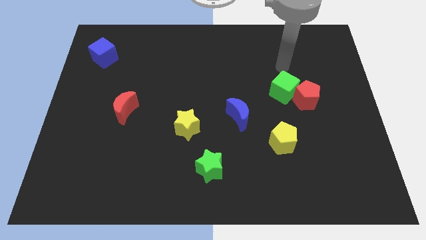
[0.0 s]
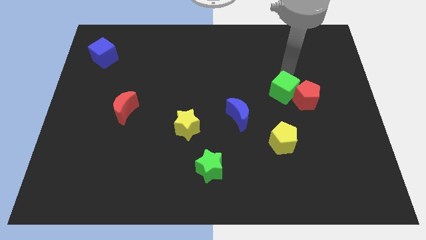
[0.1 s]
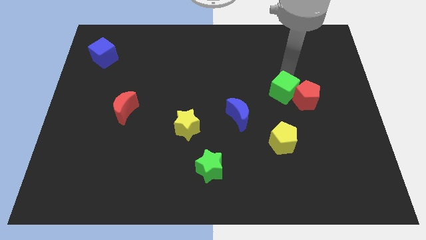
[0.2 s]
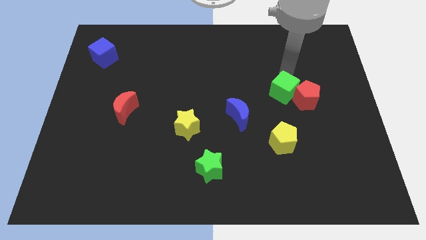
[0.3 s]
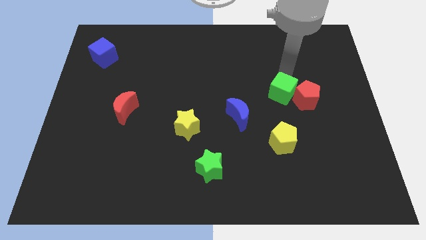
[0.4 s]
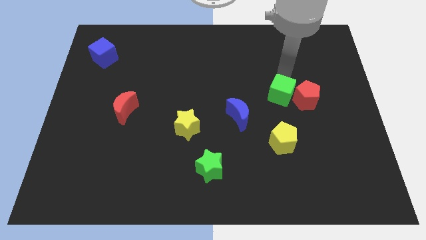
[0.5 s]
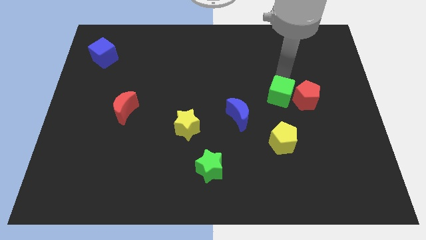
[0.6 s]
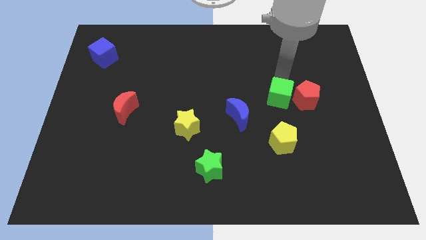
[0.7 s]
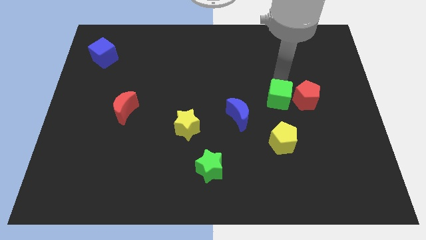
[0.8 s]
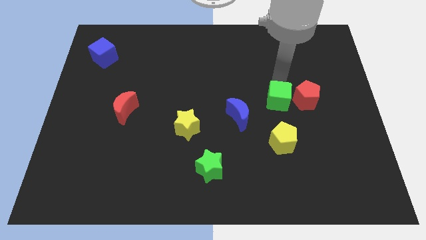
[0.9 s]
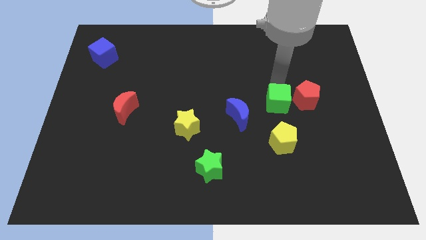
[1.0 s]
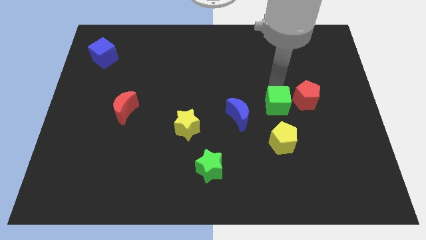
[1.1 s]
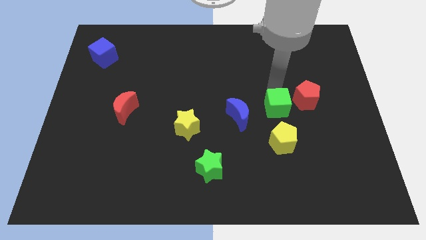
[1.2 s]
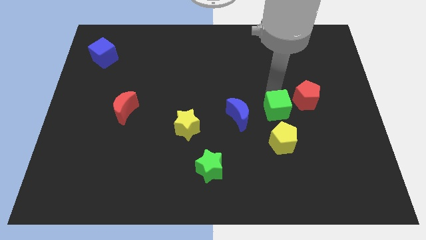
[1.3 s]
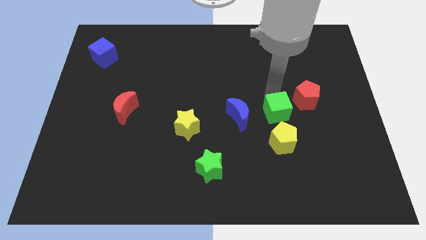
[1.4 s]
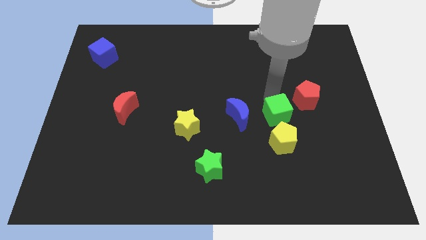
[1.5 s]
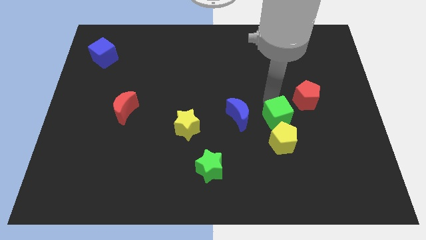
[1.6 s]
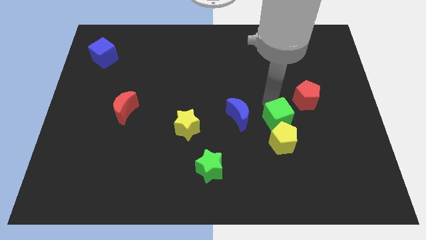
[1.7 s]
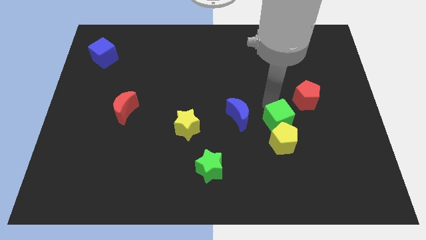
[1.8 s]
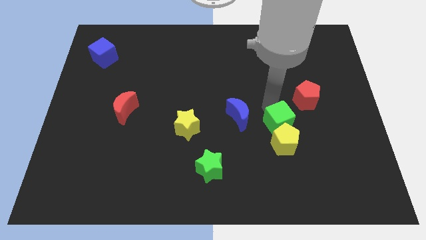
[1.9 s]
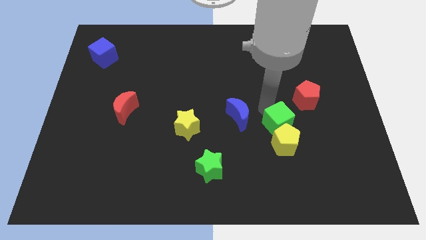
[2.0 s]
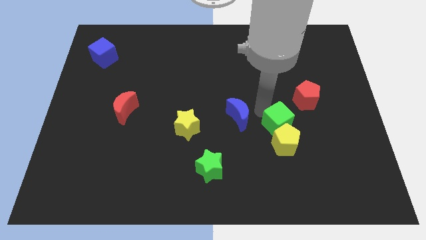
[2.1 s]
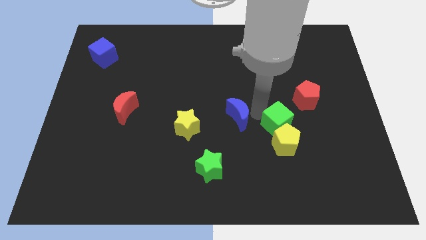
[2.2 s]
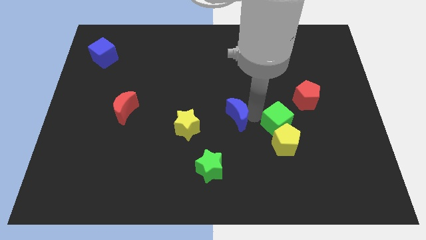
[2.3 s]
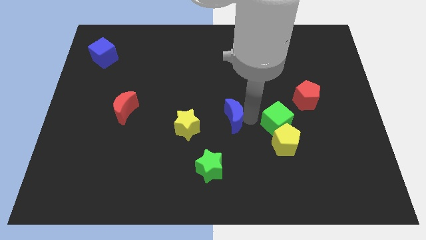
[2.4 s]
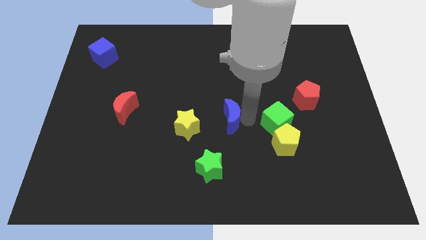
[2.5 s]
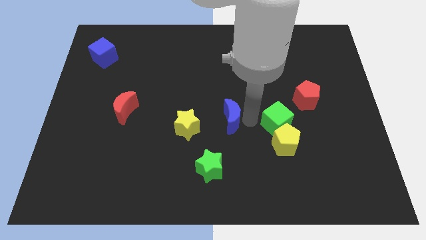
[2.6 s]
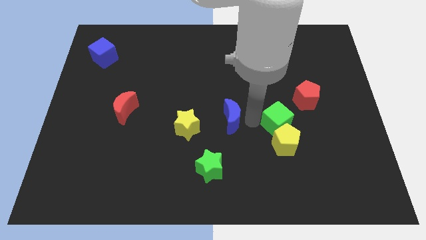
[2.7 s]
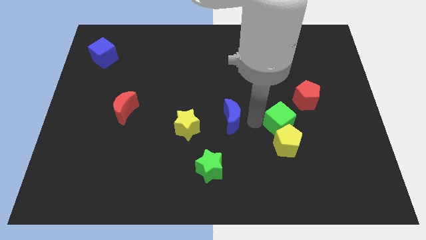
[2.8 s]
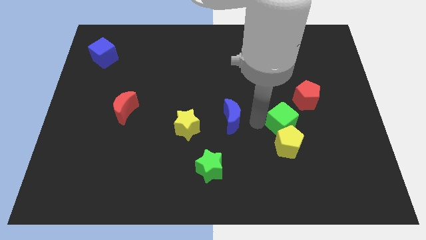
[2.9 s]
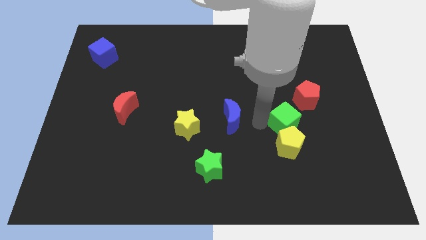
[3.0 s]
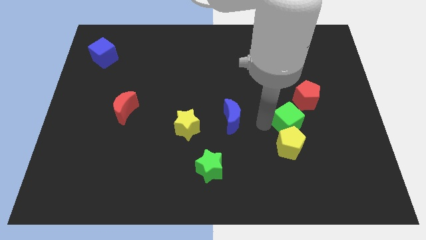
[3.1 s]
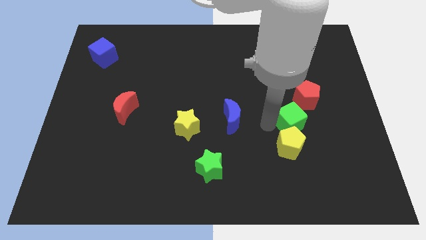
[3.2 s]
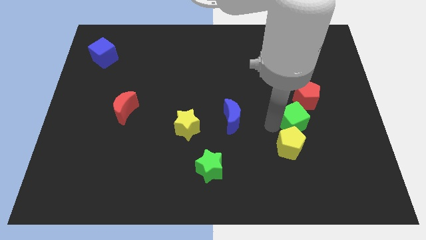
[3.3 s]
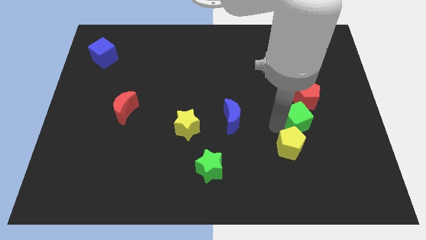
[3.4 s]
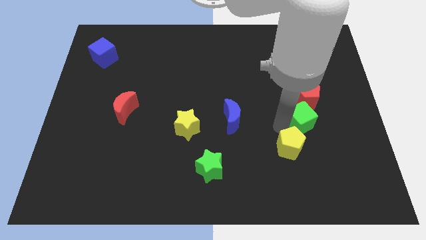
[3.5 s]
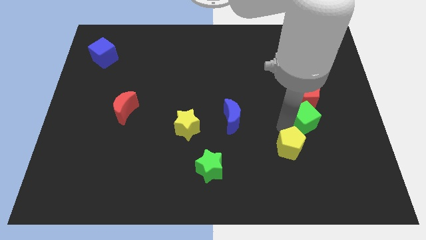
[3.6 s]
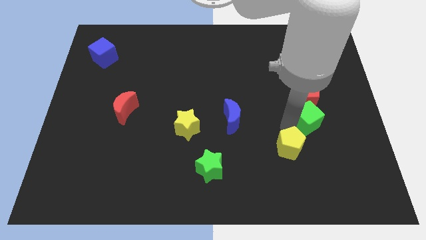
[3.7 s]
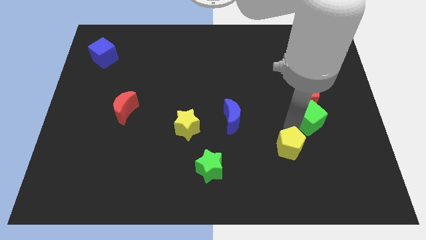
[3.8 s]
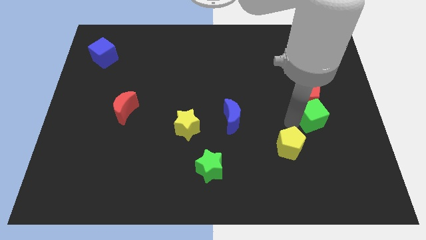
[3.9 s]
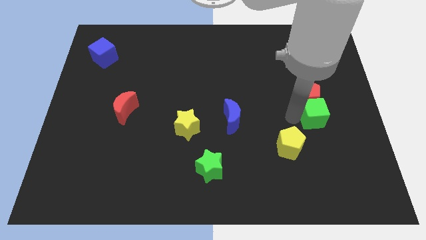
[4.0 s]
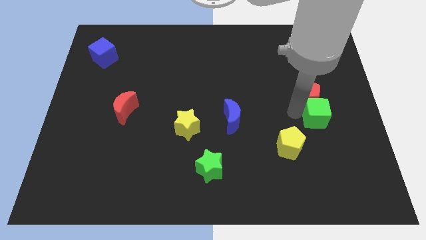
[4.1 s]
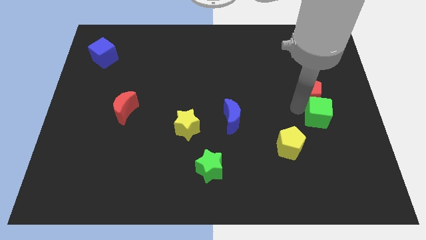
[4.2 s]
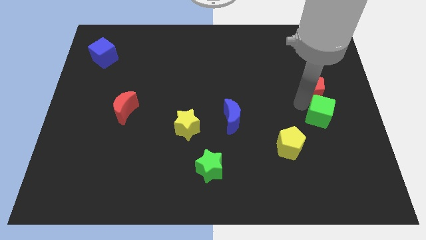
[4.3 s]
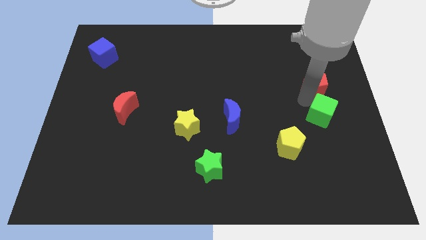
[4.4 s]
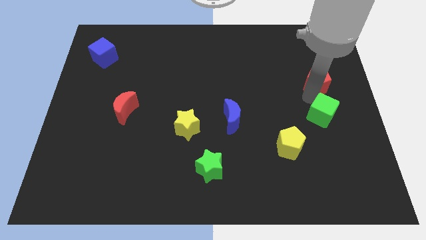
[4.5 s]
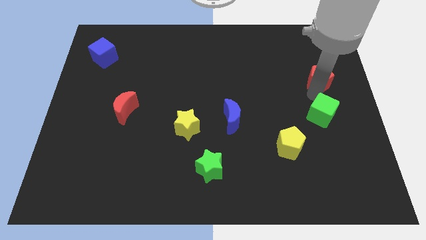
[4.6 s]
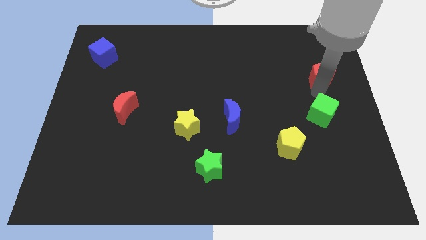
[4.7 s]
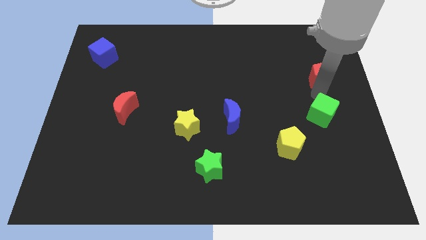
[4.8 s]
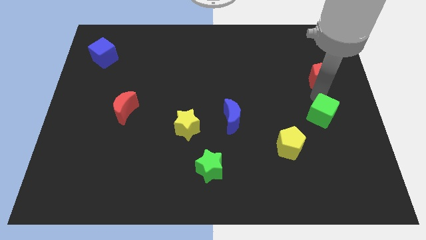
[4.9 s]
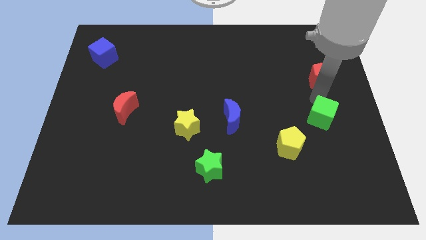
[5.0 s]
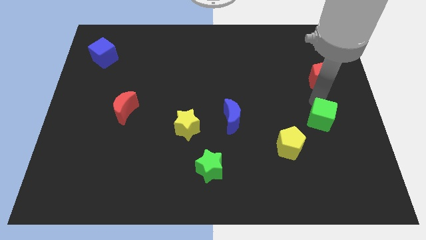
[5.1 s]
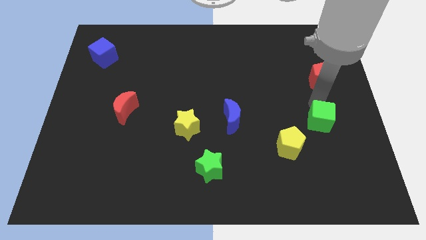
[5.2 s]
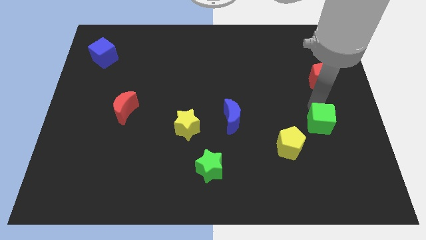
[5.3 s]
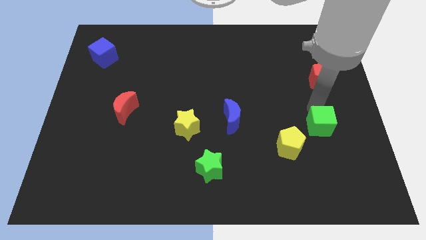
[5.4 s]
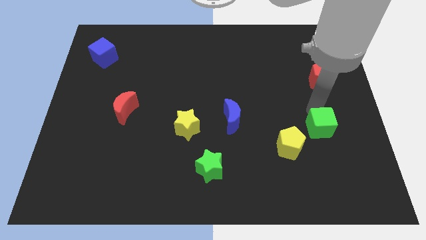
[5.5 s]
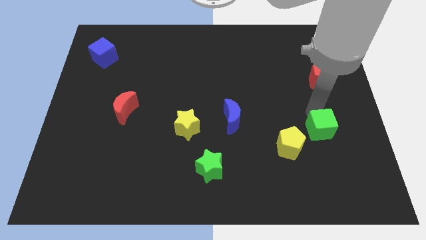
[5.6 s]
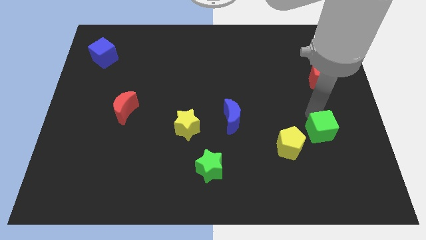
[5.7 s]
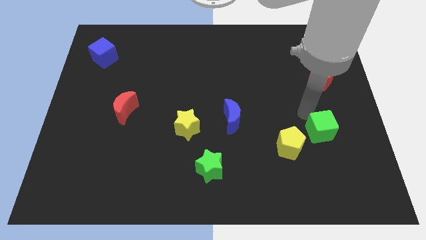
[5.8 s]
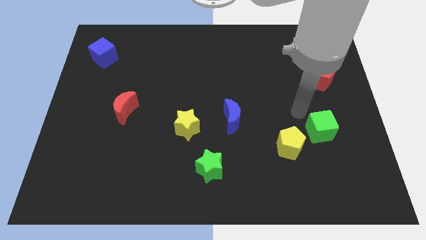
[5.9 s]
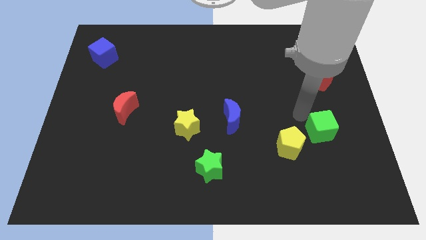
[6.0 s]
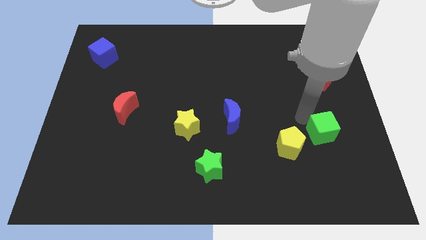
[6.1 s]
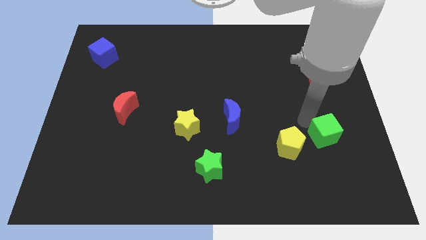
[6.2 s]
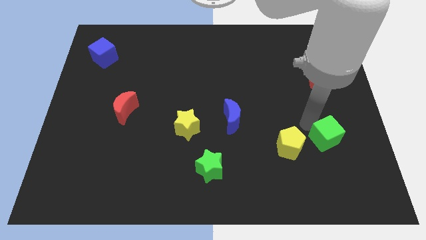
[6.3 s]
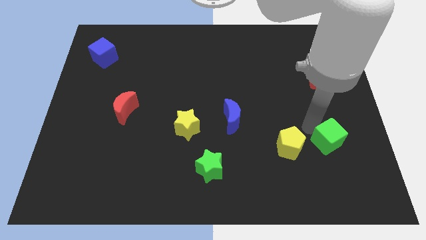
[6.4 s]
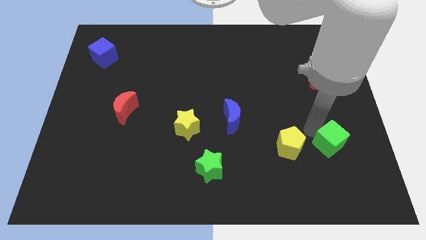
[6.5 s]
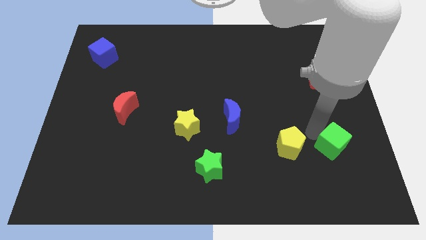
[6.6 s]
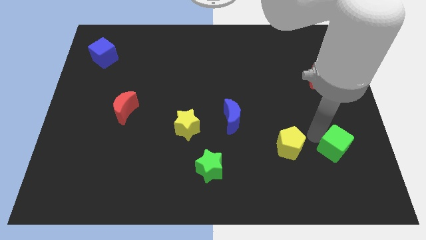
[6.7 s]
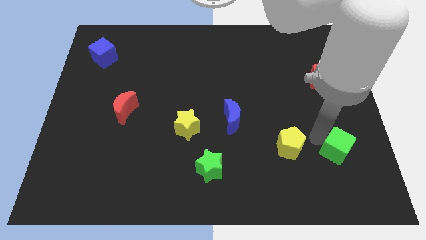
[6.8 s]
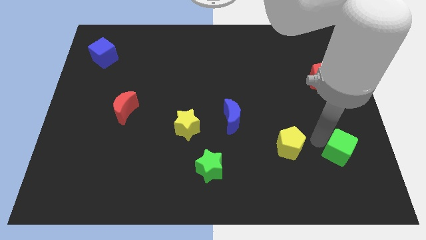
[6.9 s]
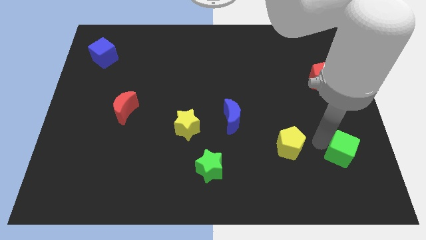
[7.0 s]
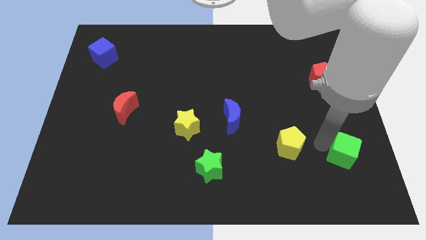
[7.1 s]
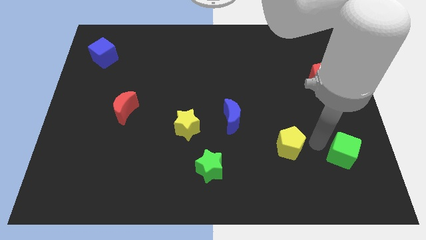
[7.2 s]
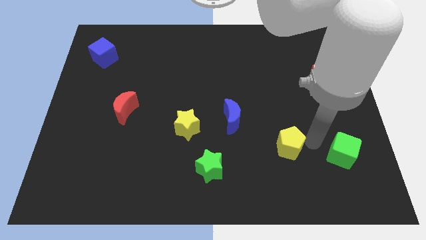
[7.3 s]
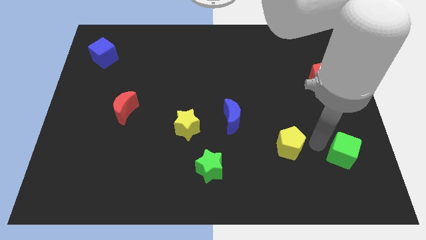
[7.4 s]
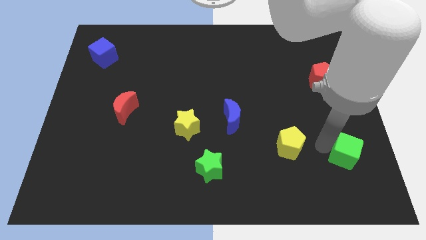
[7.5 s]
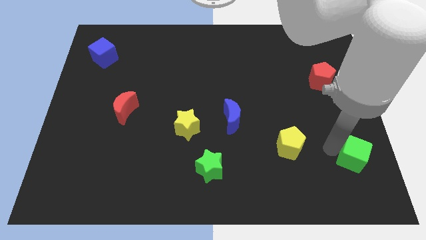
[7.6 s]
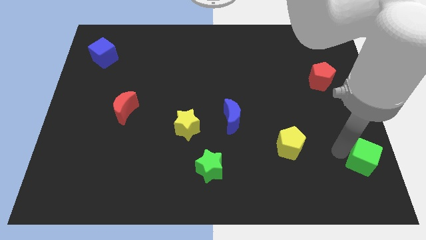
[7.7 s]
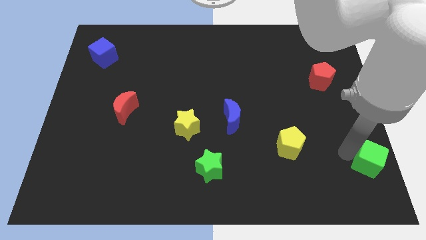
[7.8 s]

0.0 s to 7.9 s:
put the green cube to the lower right corner
